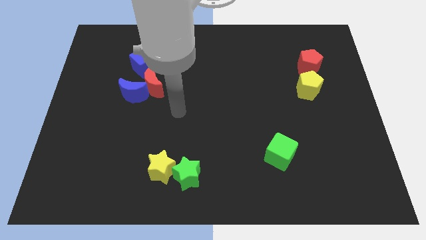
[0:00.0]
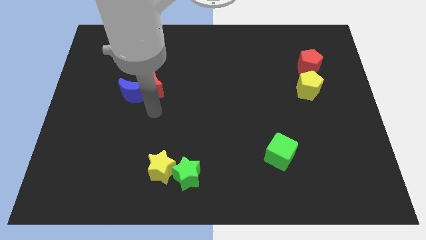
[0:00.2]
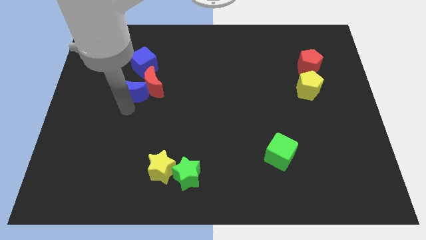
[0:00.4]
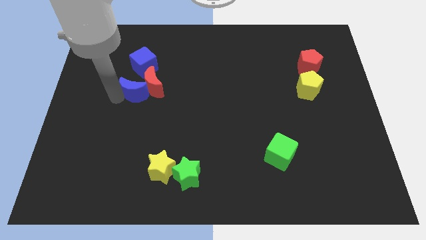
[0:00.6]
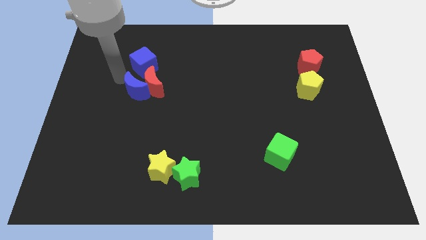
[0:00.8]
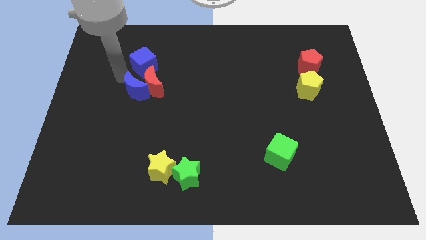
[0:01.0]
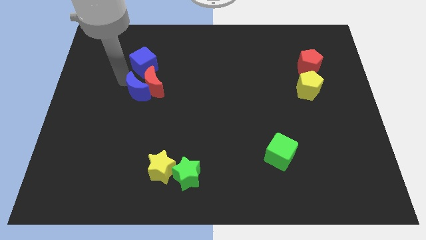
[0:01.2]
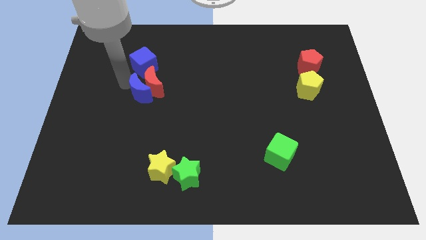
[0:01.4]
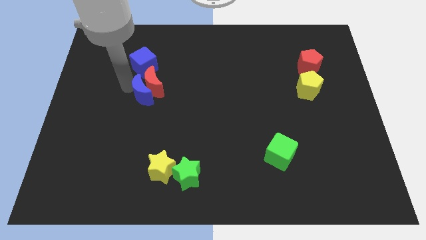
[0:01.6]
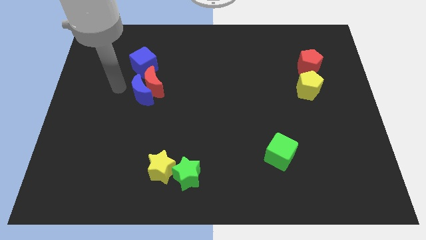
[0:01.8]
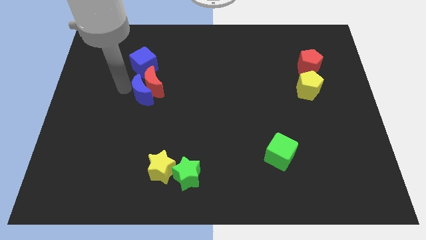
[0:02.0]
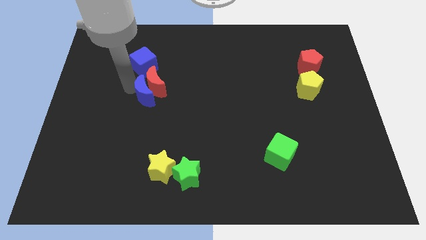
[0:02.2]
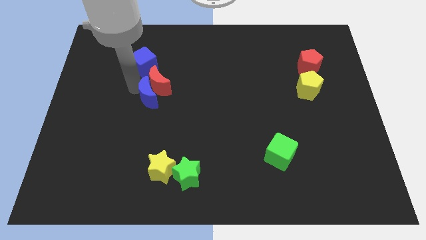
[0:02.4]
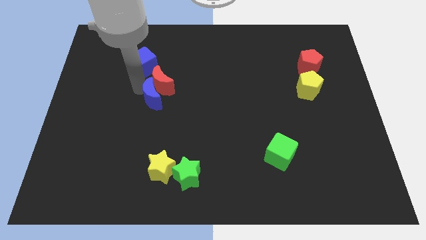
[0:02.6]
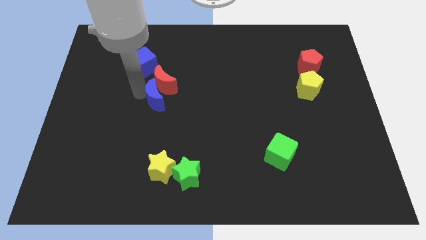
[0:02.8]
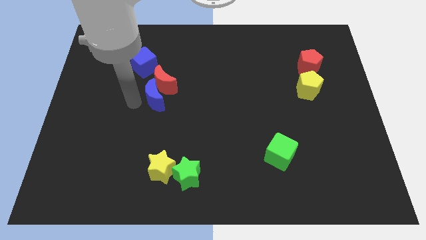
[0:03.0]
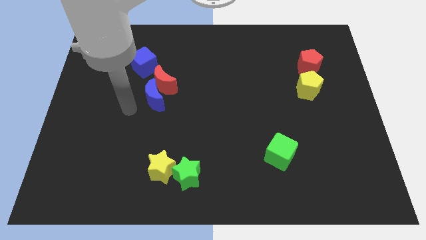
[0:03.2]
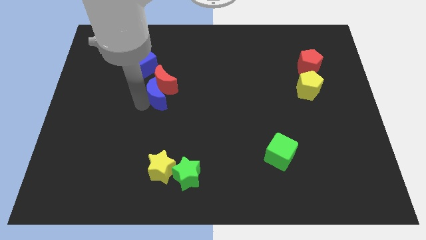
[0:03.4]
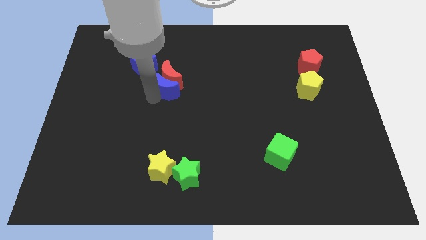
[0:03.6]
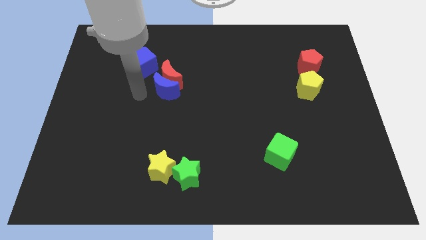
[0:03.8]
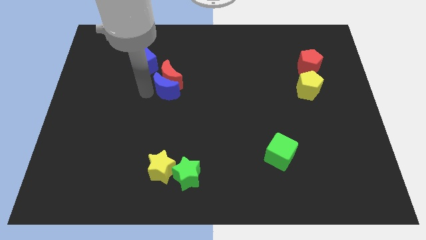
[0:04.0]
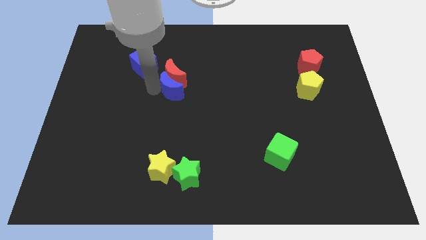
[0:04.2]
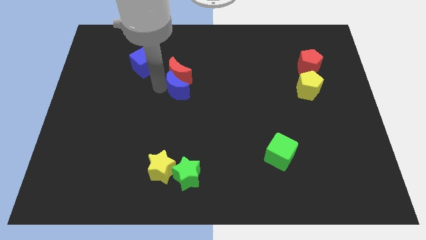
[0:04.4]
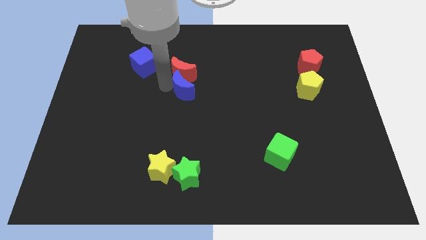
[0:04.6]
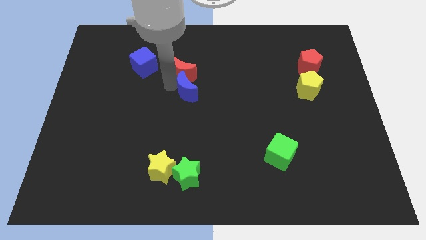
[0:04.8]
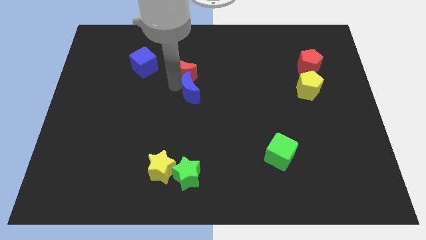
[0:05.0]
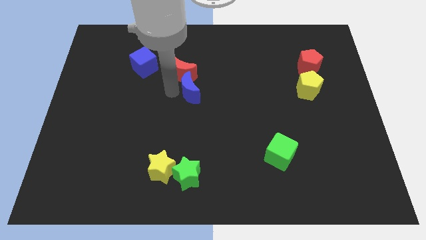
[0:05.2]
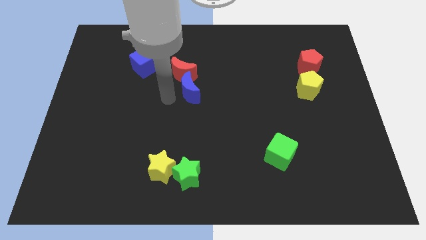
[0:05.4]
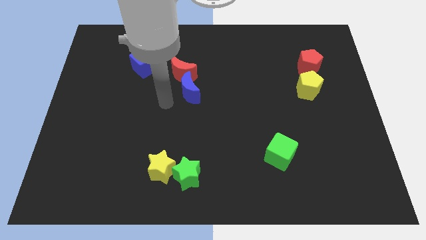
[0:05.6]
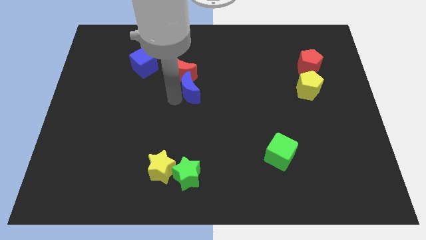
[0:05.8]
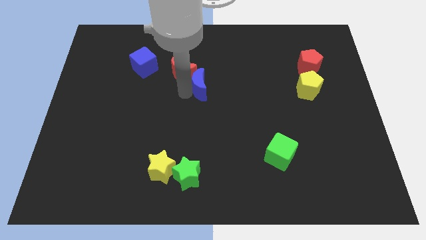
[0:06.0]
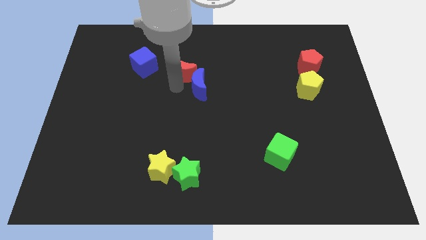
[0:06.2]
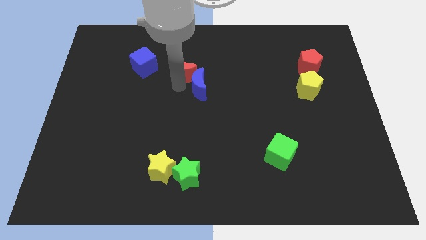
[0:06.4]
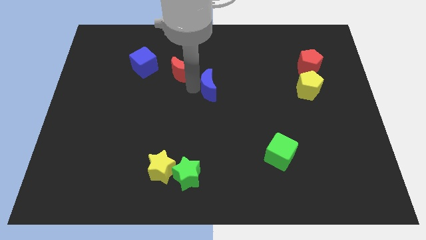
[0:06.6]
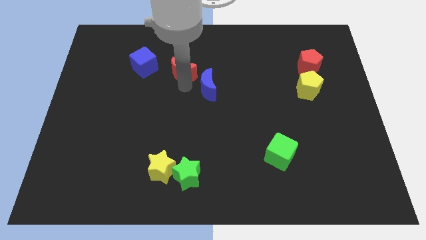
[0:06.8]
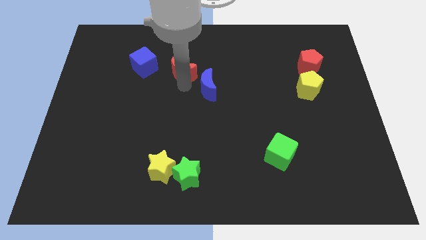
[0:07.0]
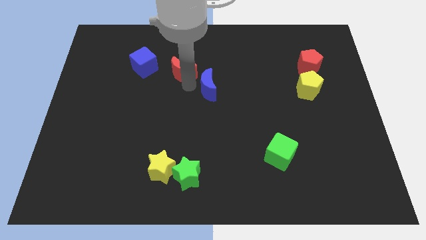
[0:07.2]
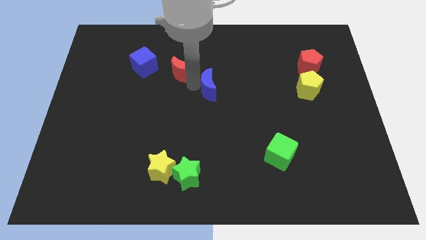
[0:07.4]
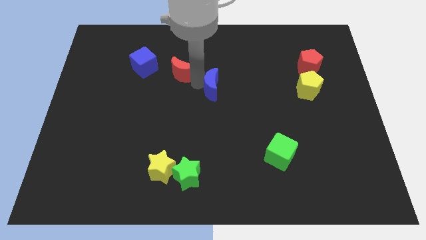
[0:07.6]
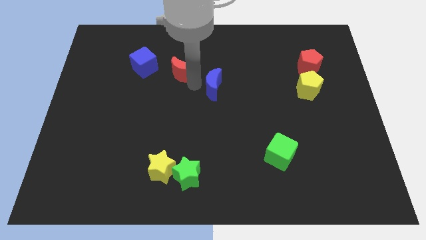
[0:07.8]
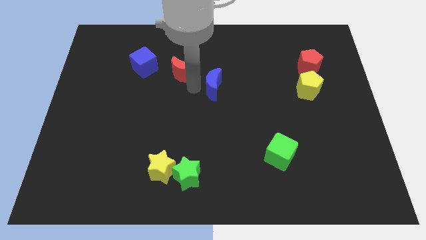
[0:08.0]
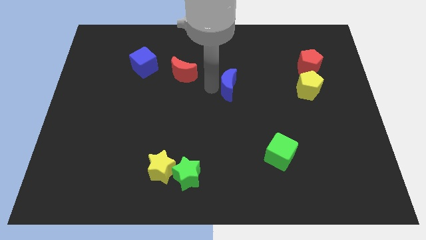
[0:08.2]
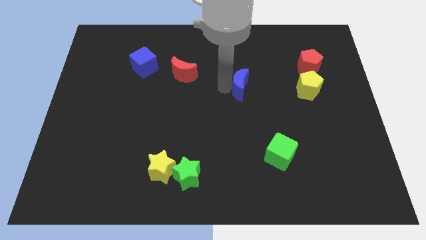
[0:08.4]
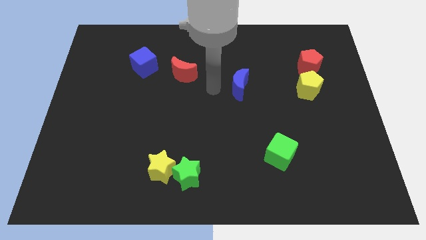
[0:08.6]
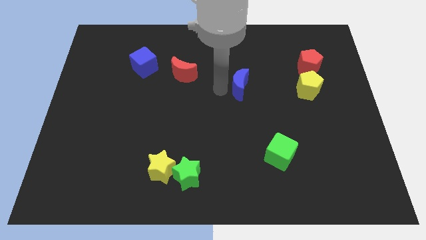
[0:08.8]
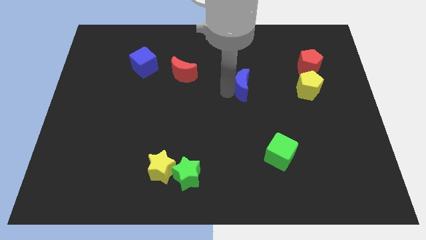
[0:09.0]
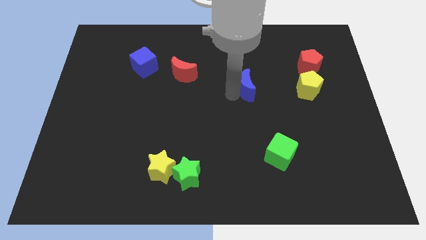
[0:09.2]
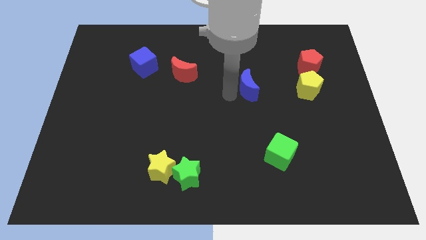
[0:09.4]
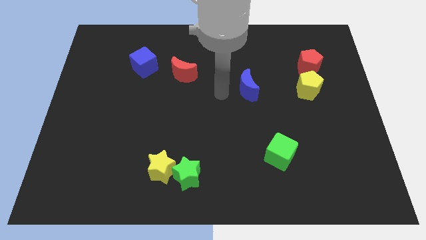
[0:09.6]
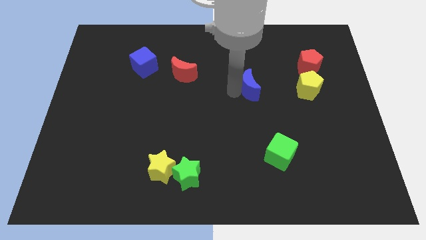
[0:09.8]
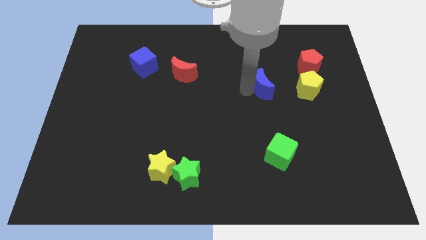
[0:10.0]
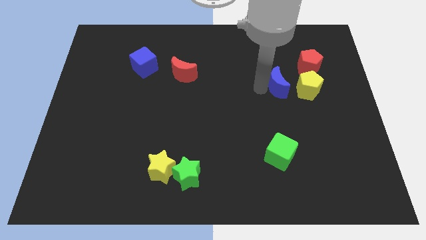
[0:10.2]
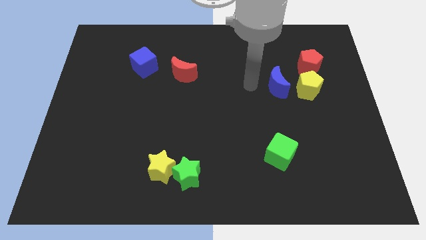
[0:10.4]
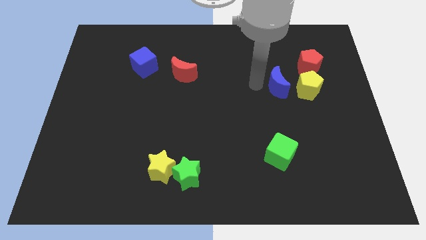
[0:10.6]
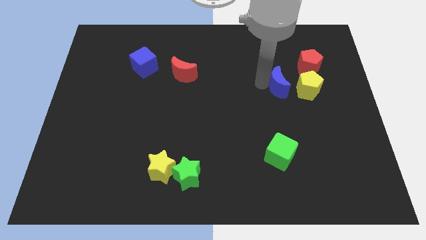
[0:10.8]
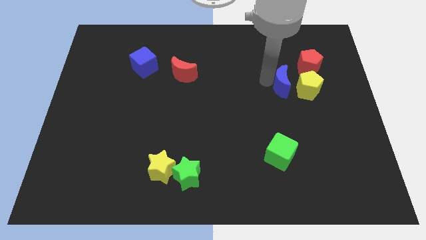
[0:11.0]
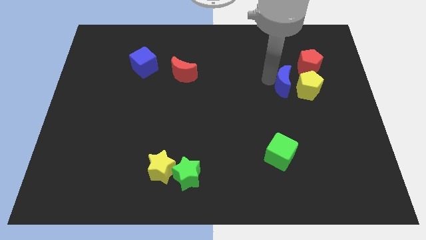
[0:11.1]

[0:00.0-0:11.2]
put the blue moon towards the yellow pentagon

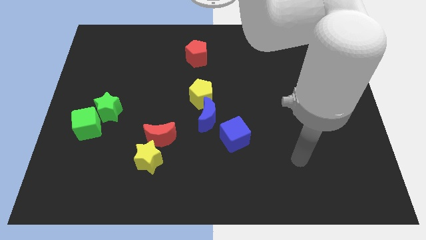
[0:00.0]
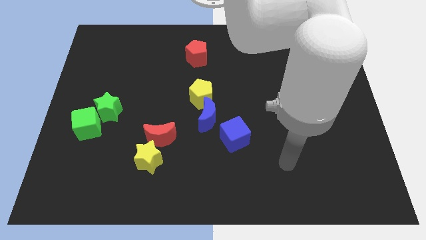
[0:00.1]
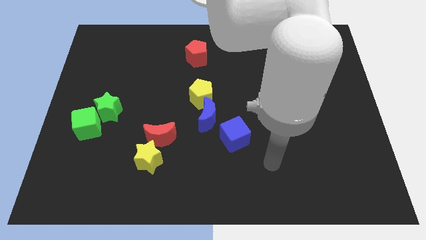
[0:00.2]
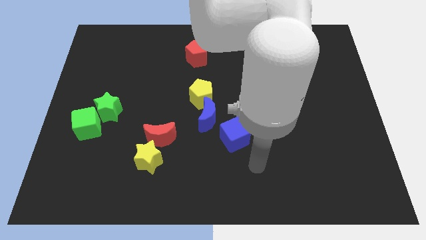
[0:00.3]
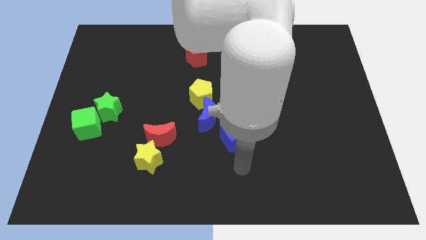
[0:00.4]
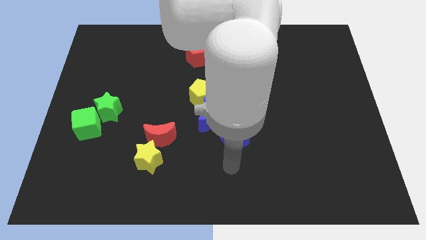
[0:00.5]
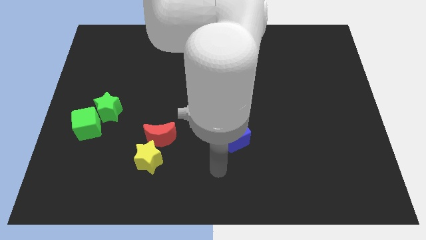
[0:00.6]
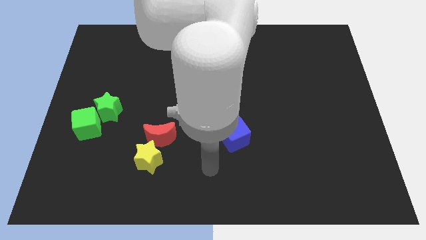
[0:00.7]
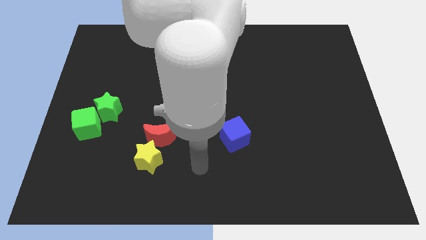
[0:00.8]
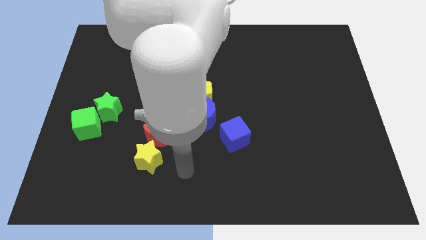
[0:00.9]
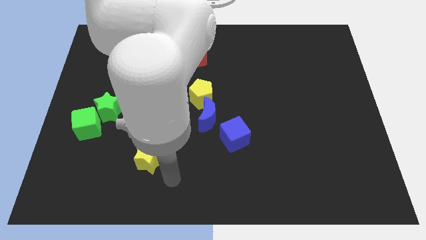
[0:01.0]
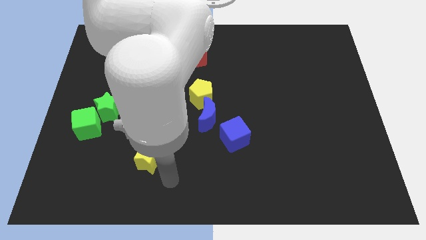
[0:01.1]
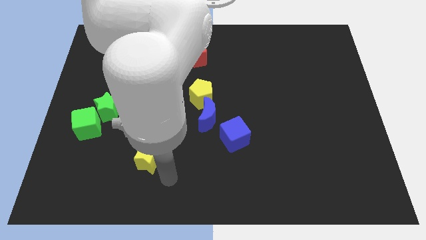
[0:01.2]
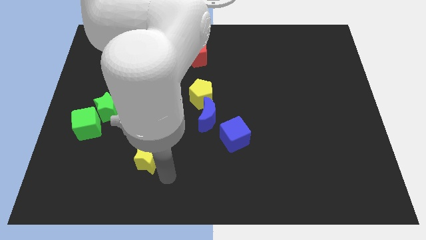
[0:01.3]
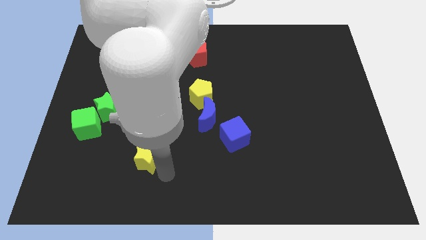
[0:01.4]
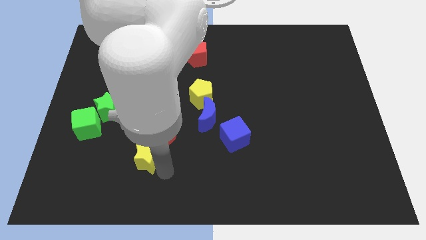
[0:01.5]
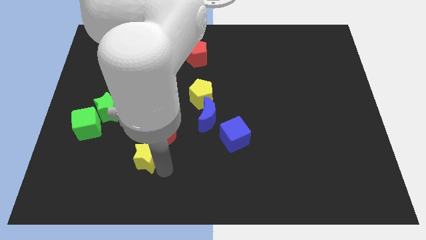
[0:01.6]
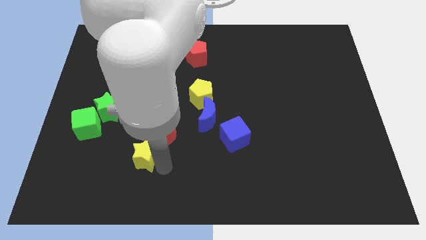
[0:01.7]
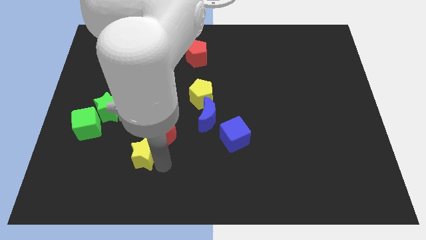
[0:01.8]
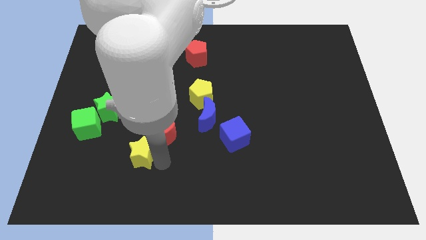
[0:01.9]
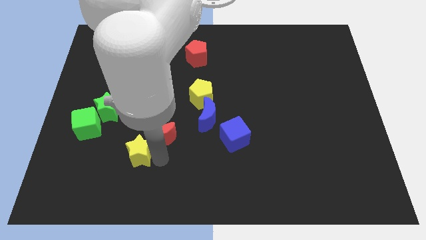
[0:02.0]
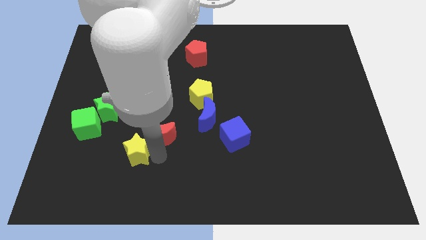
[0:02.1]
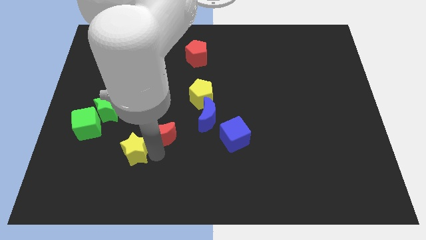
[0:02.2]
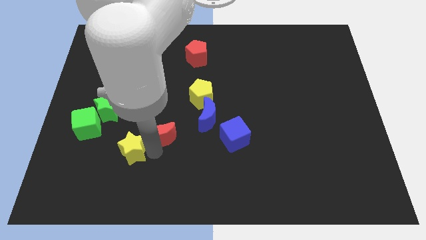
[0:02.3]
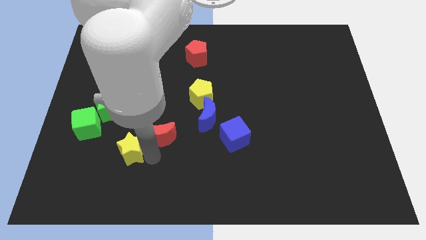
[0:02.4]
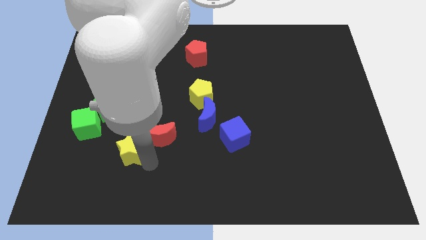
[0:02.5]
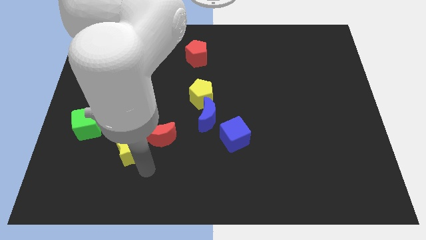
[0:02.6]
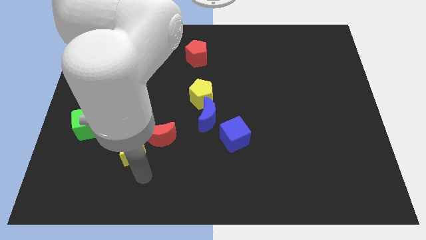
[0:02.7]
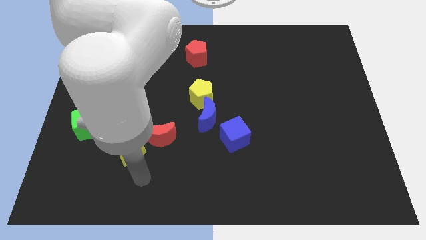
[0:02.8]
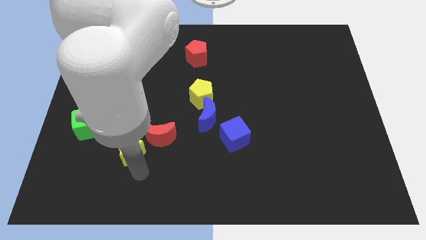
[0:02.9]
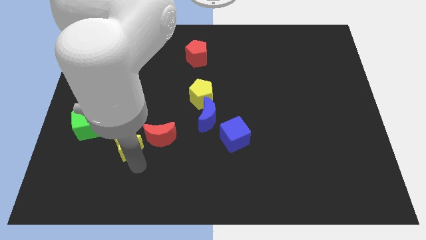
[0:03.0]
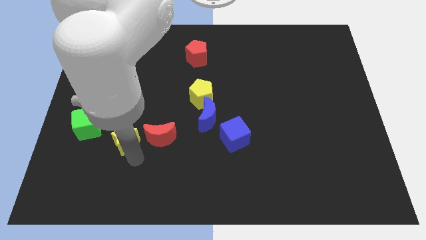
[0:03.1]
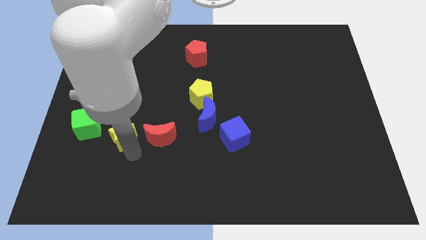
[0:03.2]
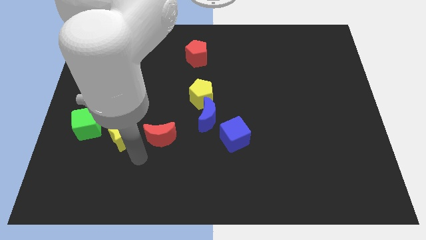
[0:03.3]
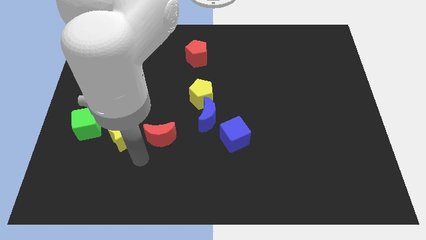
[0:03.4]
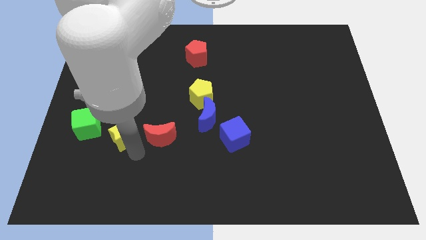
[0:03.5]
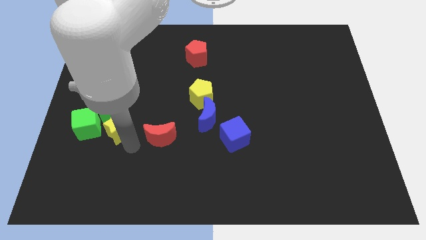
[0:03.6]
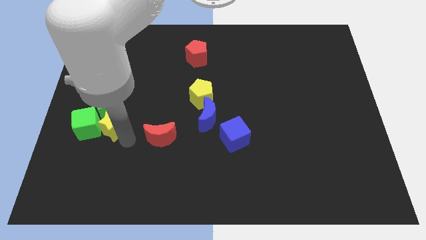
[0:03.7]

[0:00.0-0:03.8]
move the yellow star to the green star
